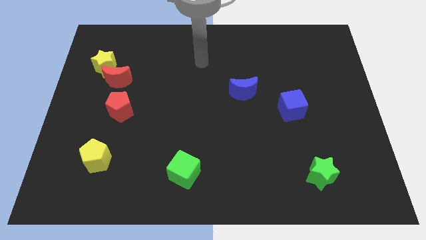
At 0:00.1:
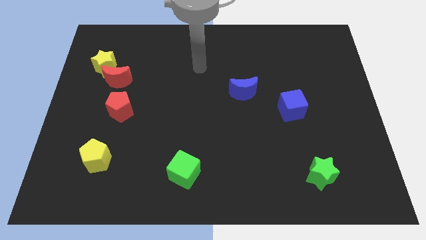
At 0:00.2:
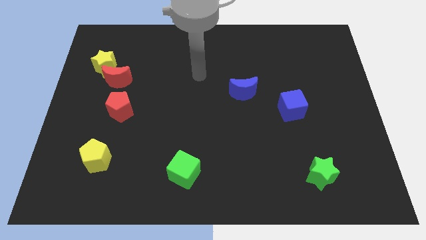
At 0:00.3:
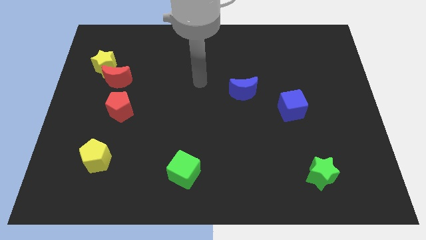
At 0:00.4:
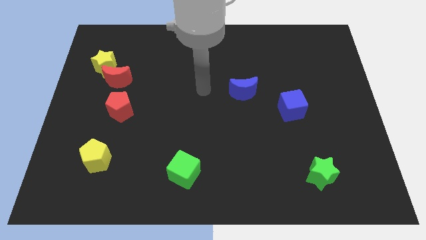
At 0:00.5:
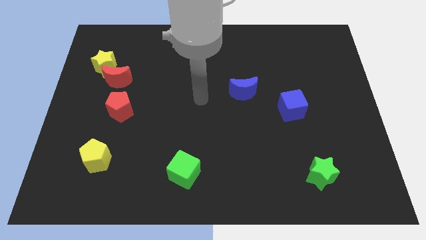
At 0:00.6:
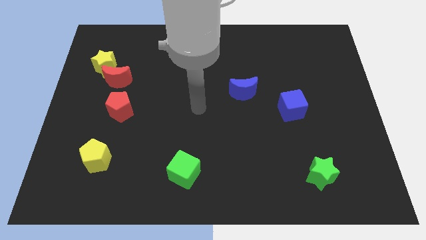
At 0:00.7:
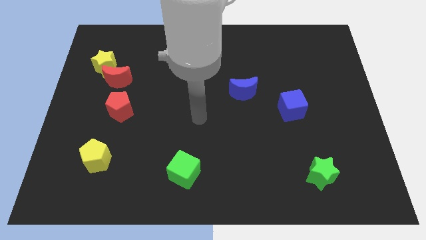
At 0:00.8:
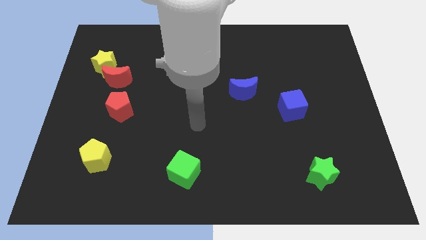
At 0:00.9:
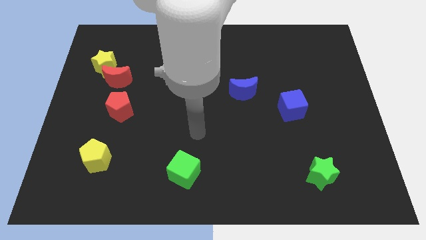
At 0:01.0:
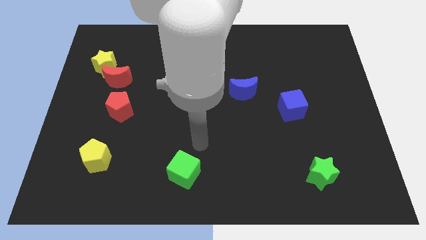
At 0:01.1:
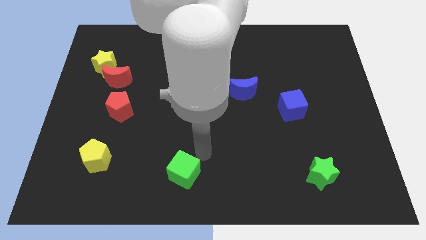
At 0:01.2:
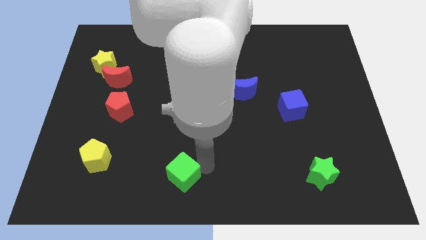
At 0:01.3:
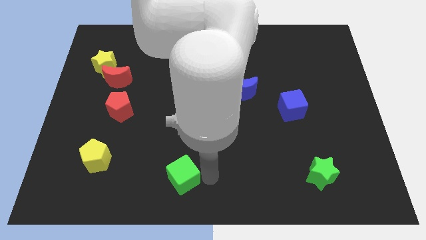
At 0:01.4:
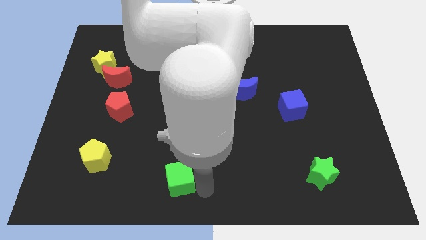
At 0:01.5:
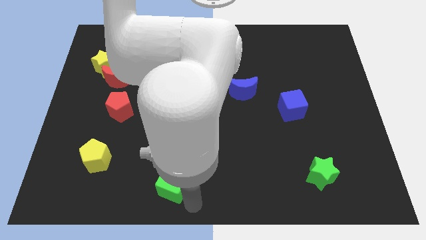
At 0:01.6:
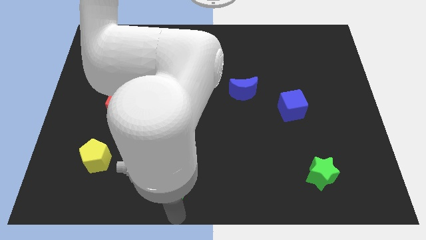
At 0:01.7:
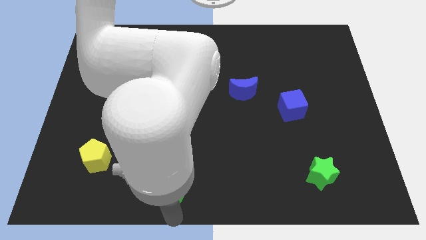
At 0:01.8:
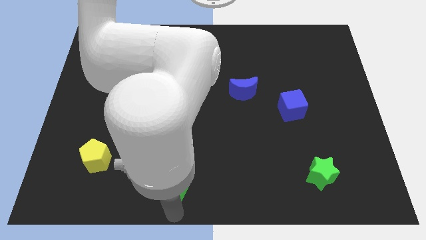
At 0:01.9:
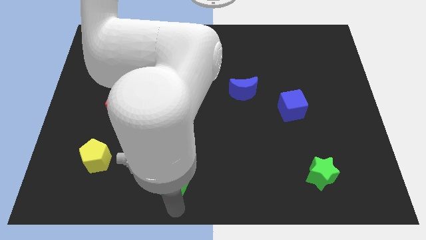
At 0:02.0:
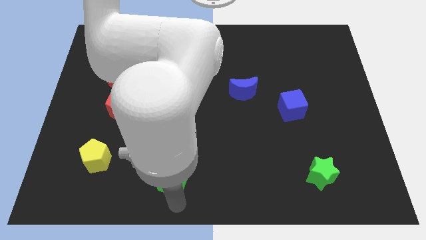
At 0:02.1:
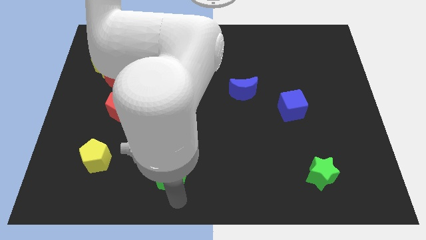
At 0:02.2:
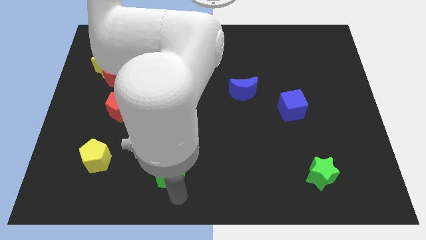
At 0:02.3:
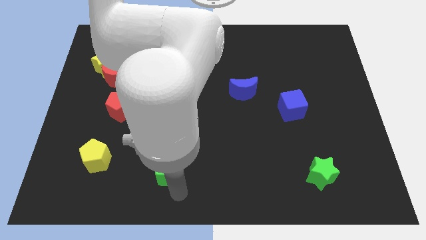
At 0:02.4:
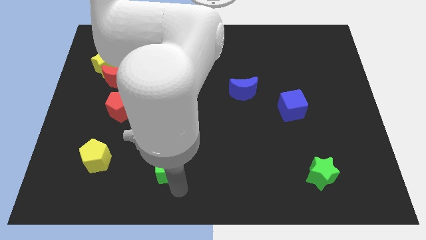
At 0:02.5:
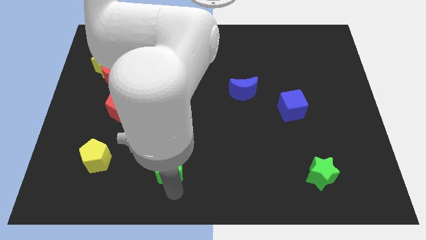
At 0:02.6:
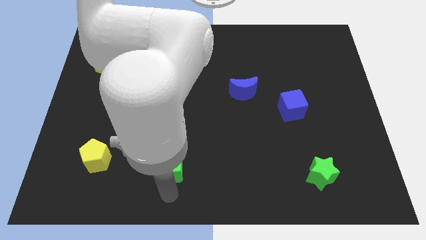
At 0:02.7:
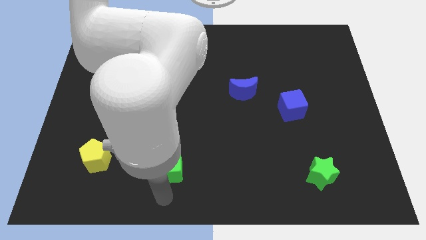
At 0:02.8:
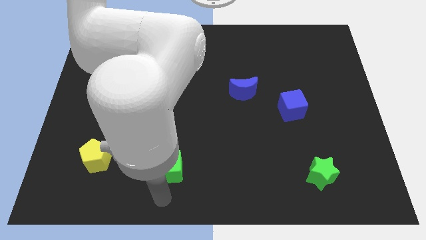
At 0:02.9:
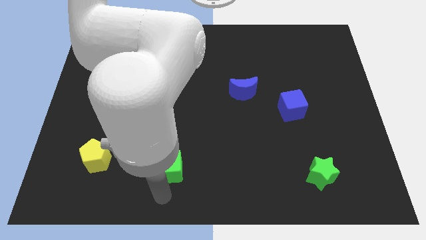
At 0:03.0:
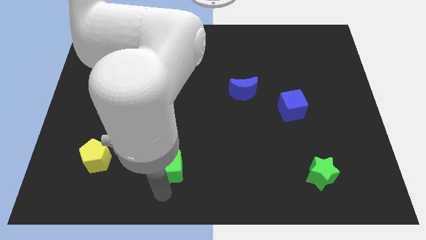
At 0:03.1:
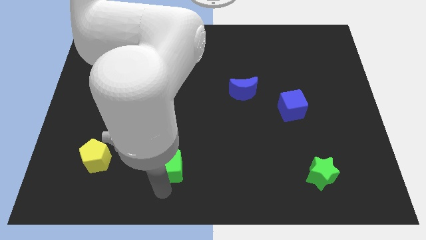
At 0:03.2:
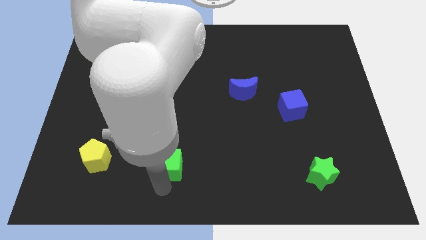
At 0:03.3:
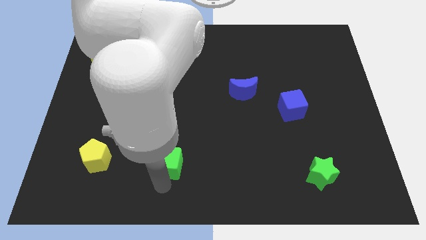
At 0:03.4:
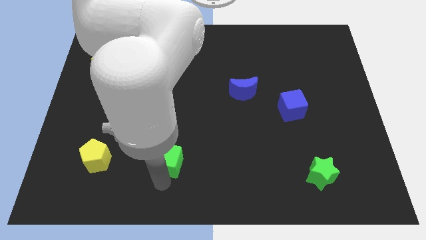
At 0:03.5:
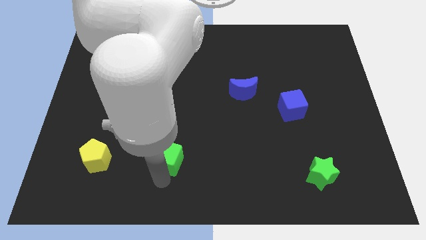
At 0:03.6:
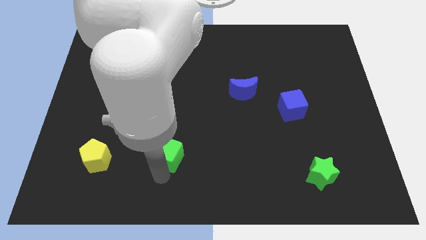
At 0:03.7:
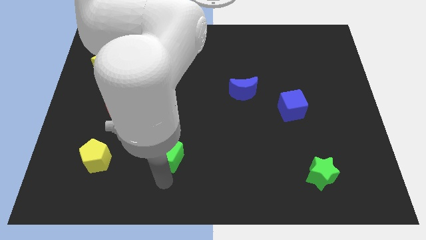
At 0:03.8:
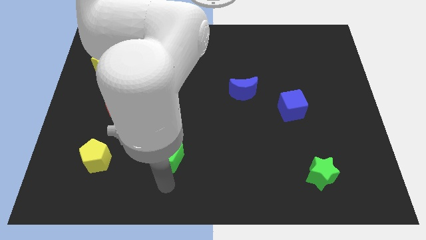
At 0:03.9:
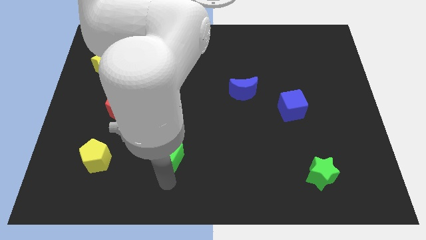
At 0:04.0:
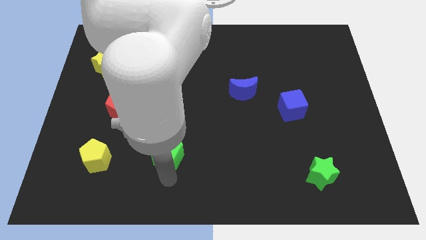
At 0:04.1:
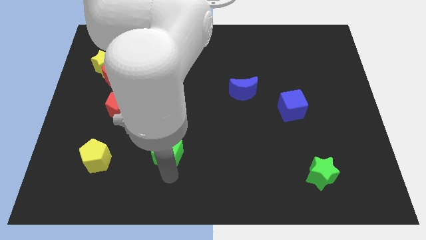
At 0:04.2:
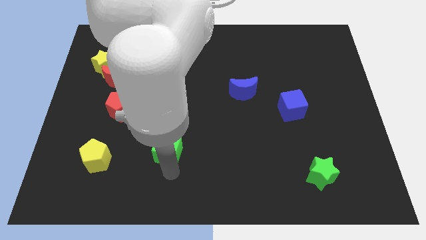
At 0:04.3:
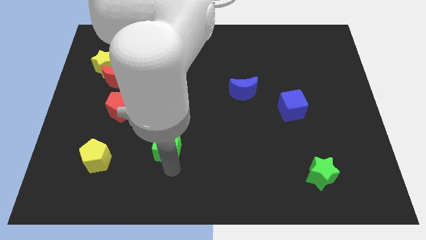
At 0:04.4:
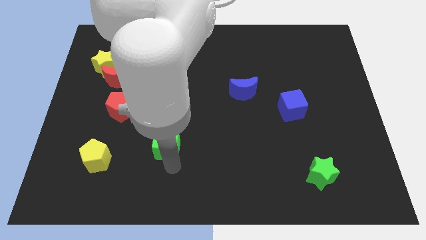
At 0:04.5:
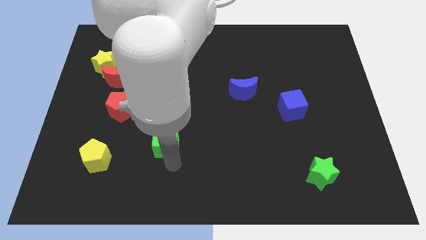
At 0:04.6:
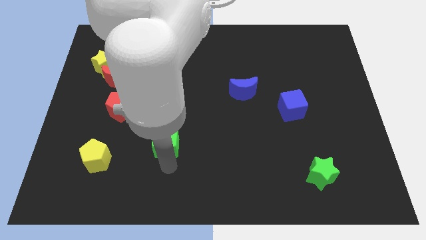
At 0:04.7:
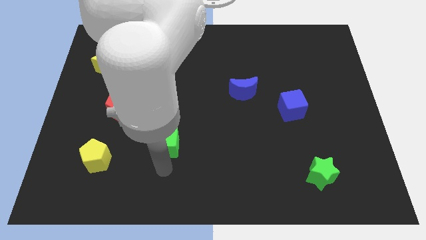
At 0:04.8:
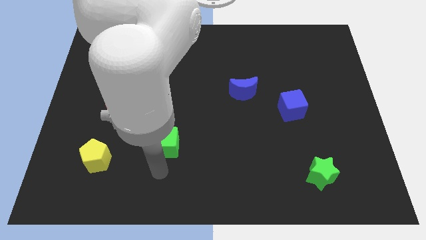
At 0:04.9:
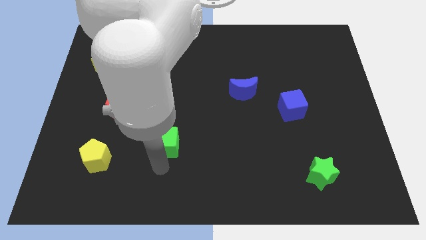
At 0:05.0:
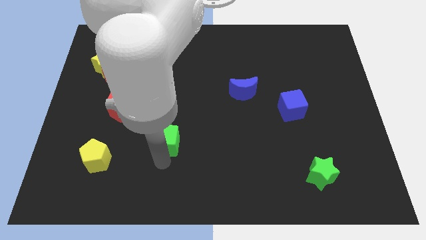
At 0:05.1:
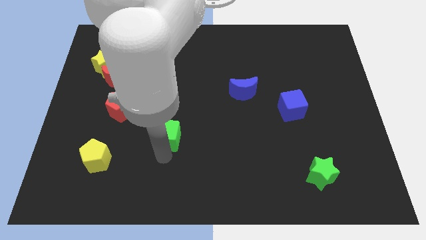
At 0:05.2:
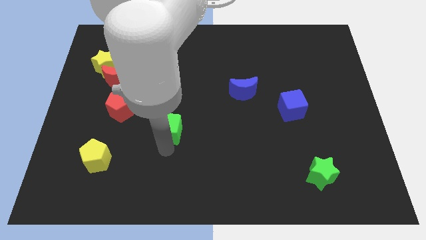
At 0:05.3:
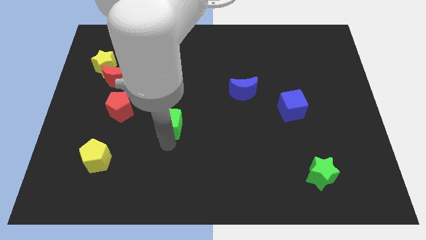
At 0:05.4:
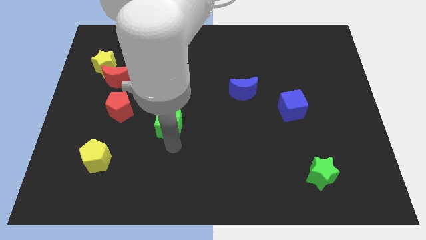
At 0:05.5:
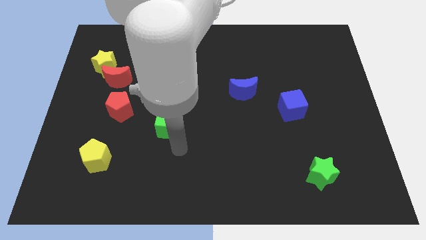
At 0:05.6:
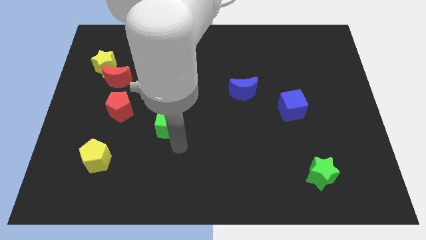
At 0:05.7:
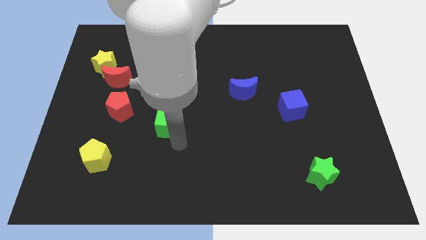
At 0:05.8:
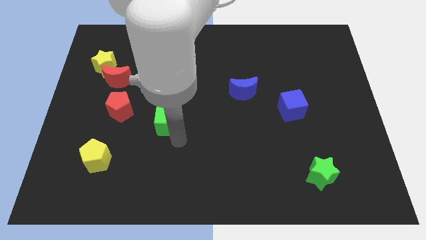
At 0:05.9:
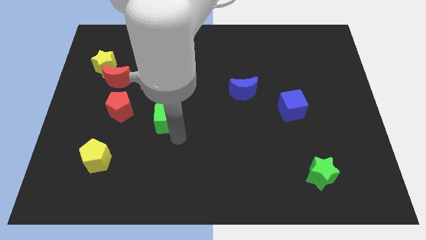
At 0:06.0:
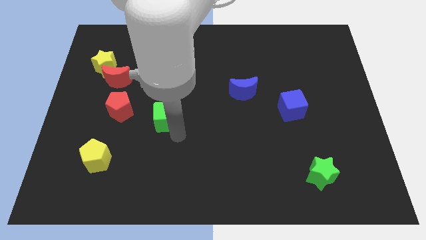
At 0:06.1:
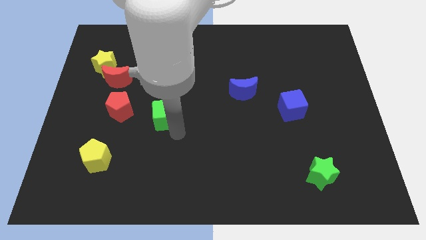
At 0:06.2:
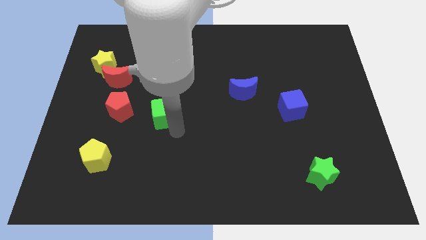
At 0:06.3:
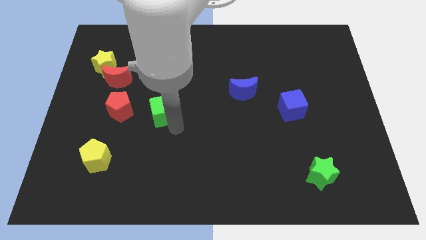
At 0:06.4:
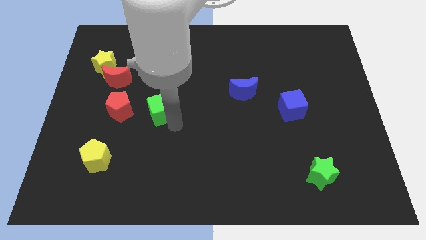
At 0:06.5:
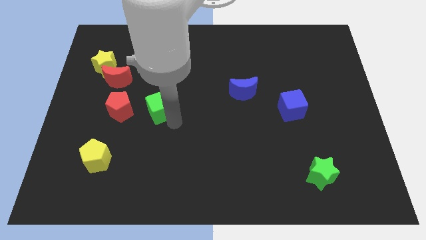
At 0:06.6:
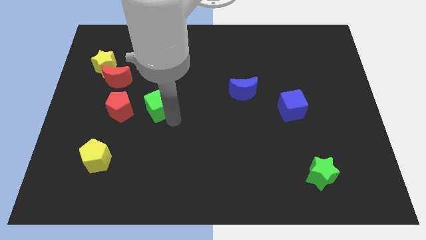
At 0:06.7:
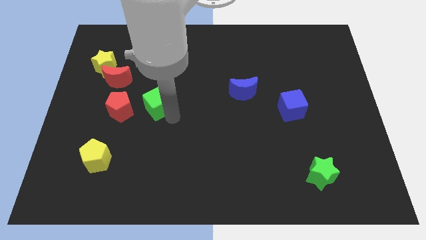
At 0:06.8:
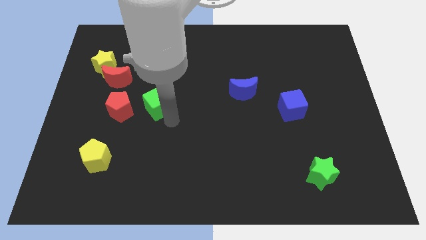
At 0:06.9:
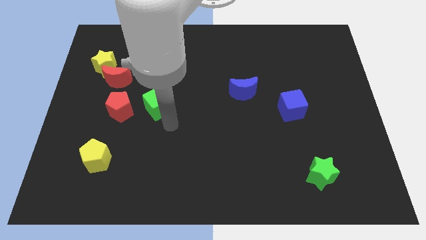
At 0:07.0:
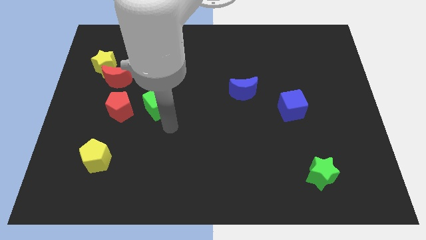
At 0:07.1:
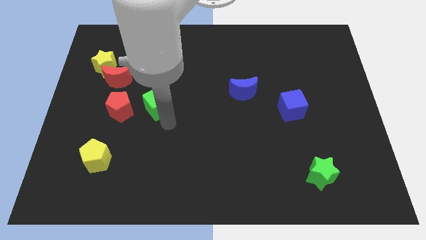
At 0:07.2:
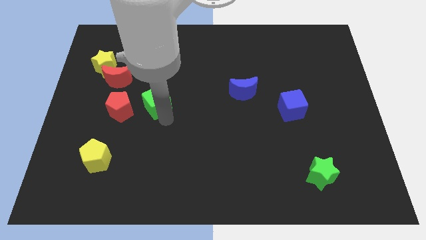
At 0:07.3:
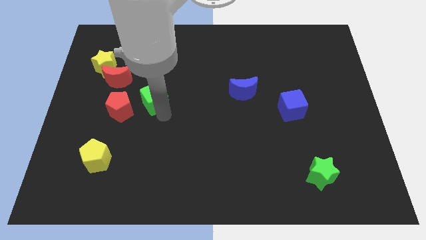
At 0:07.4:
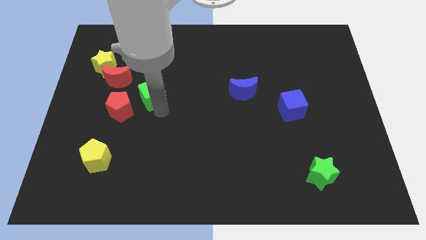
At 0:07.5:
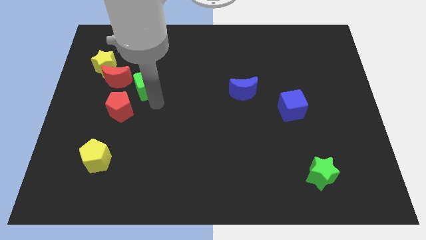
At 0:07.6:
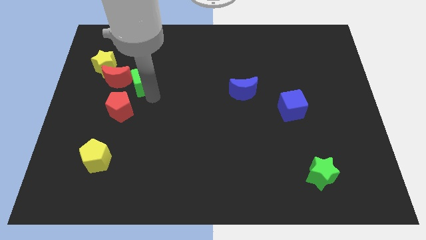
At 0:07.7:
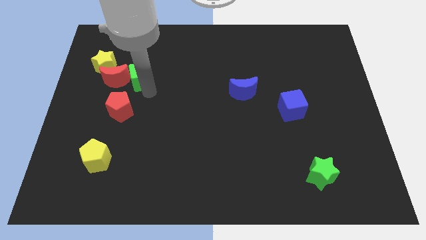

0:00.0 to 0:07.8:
put the green cube to the top right side of the red moon
